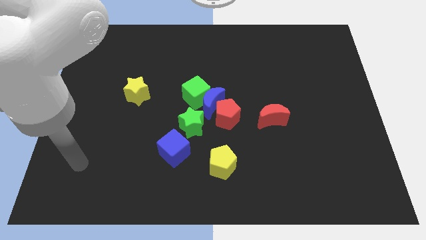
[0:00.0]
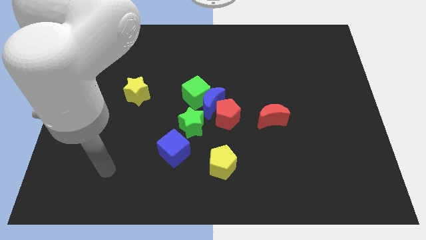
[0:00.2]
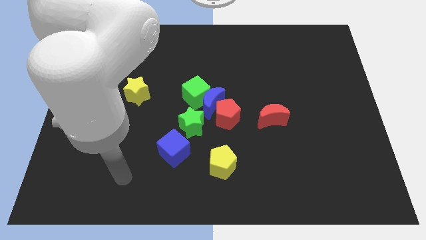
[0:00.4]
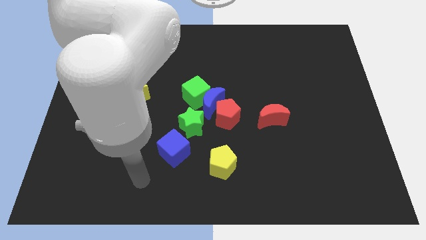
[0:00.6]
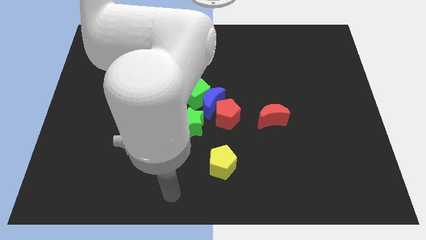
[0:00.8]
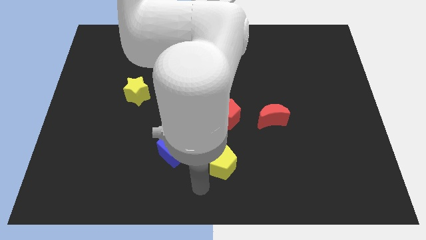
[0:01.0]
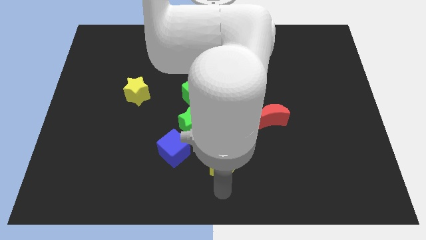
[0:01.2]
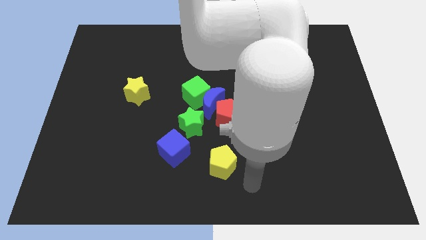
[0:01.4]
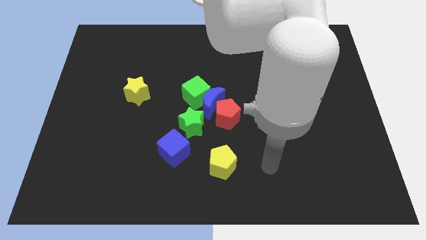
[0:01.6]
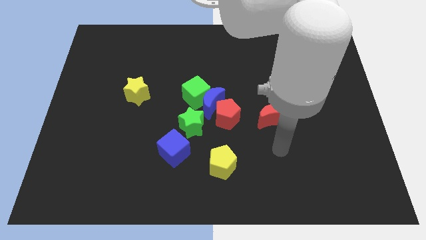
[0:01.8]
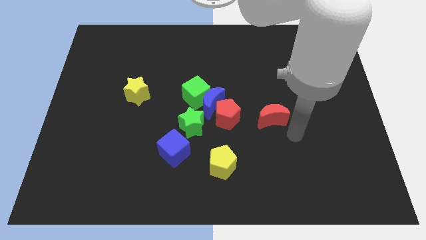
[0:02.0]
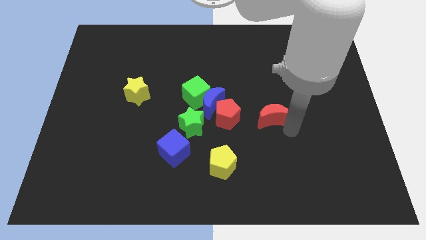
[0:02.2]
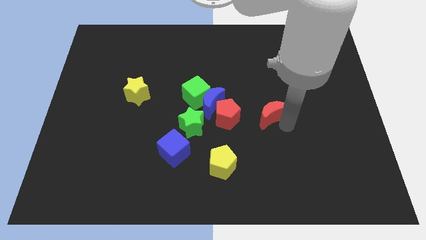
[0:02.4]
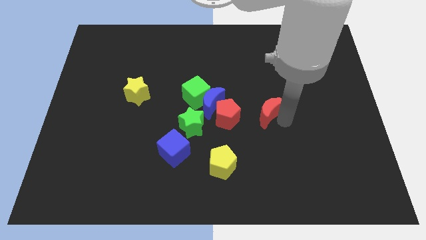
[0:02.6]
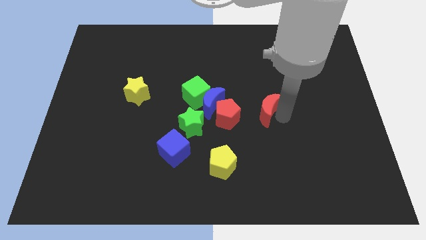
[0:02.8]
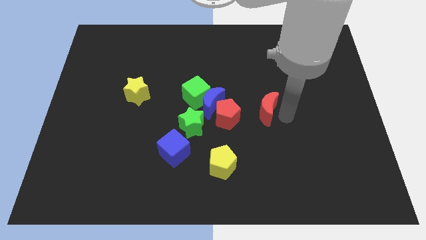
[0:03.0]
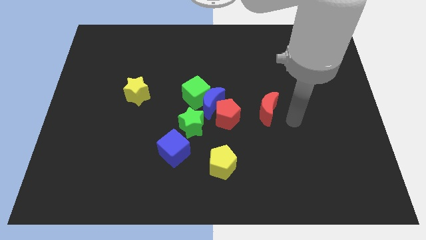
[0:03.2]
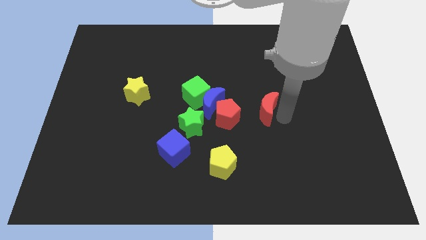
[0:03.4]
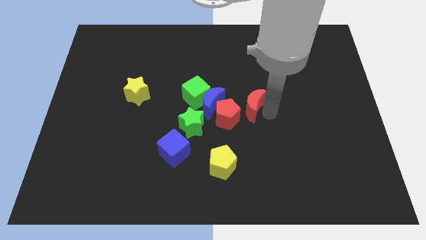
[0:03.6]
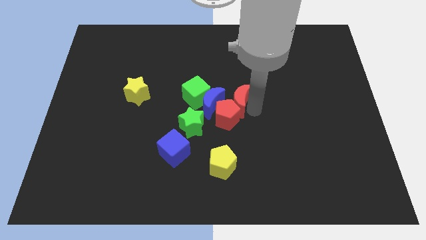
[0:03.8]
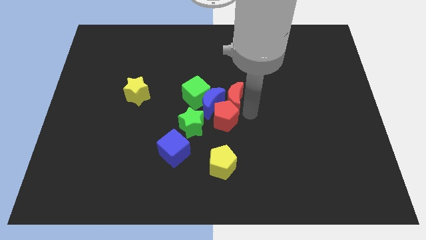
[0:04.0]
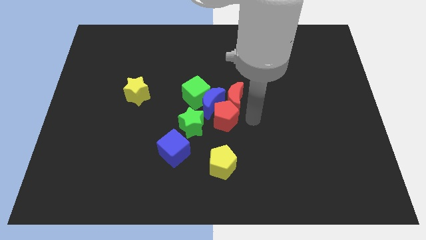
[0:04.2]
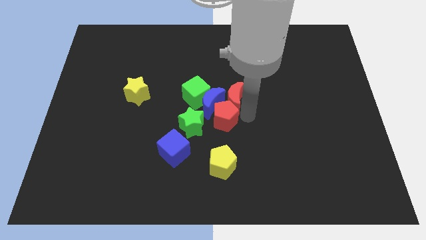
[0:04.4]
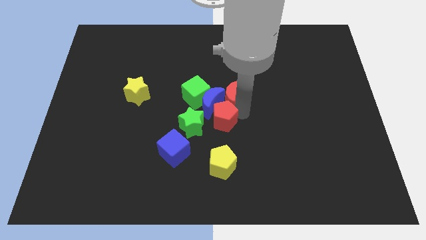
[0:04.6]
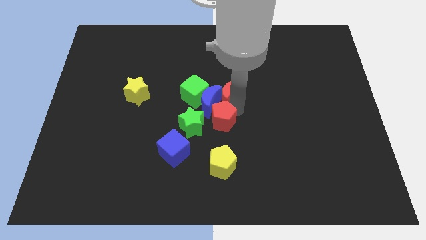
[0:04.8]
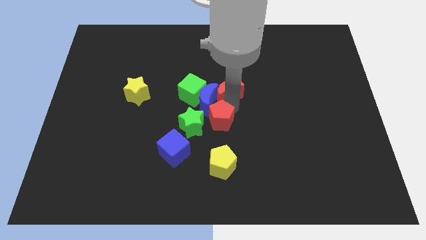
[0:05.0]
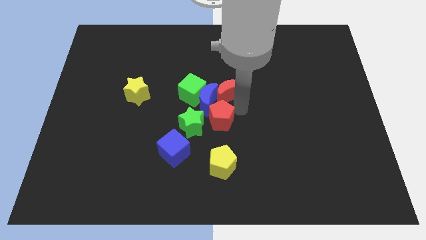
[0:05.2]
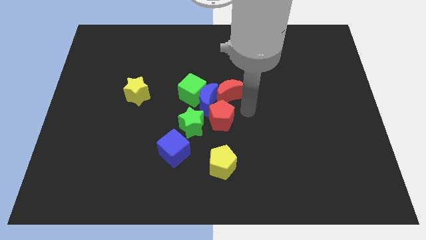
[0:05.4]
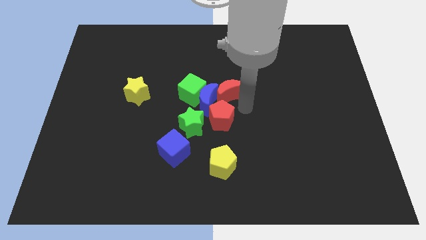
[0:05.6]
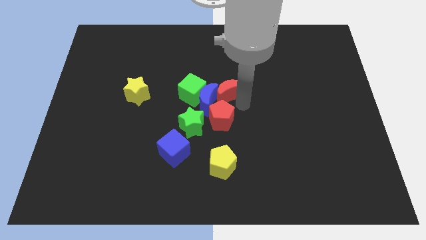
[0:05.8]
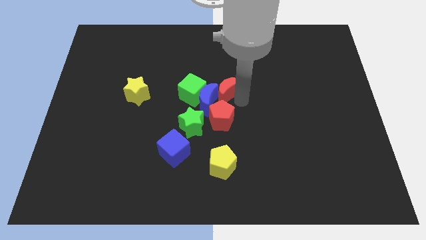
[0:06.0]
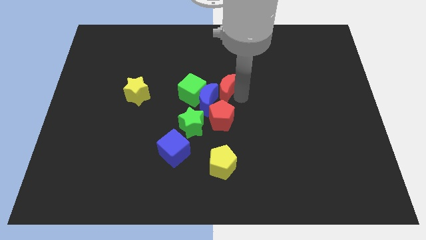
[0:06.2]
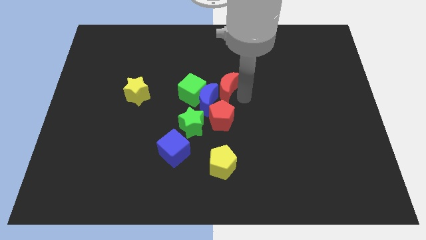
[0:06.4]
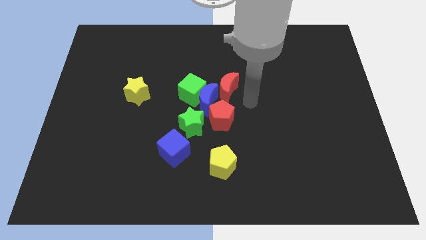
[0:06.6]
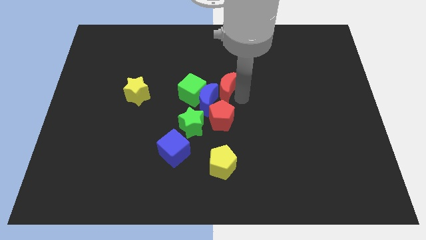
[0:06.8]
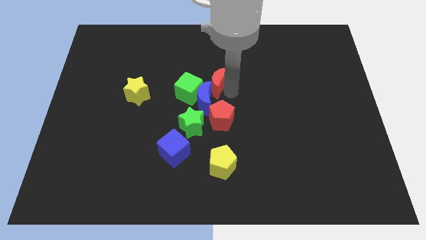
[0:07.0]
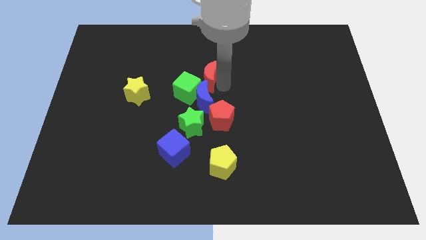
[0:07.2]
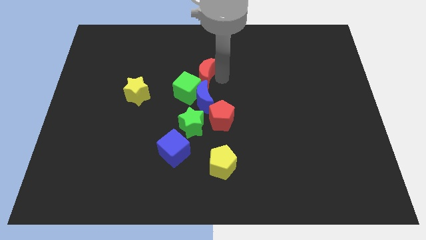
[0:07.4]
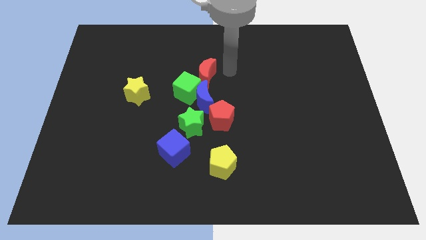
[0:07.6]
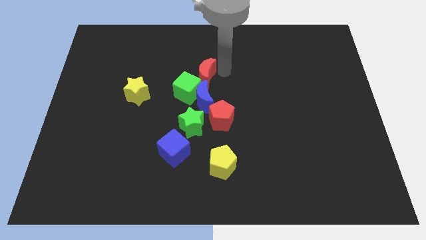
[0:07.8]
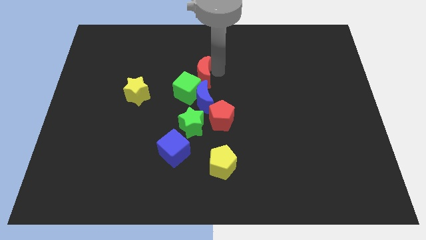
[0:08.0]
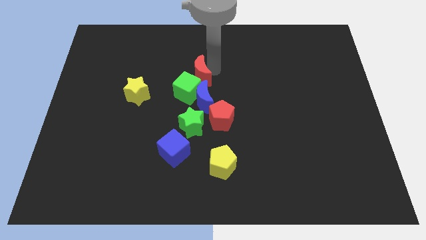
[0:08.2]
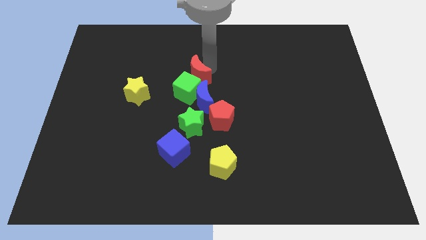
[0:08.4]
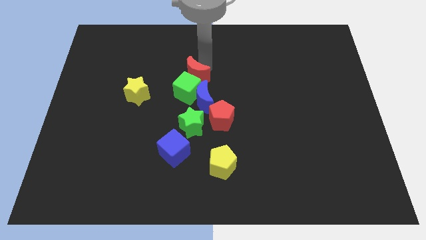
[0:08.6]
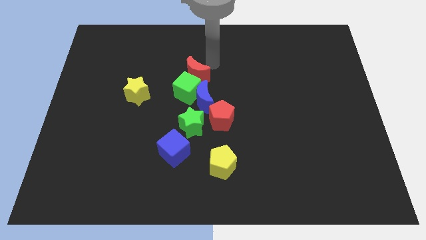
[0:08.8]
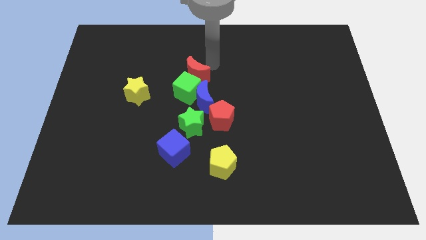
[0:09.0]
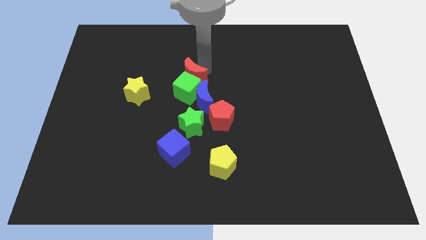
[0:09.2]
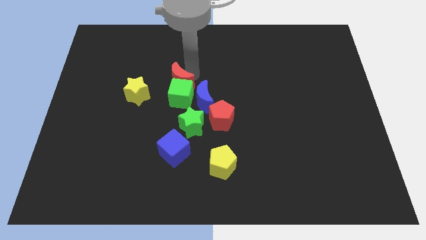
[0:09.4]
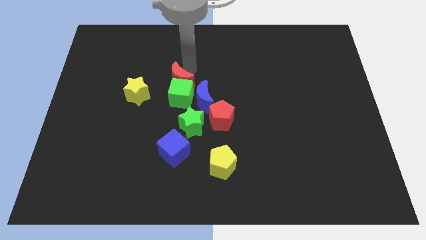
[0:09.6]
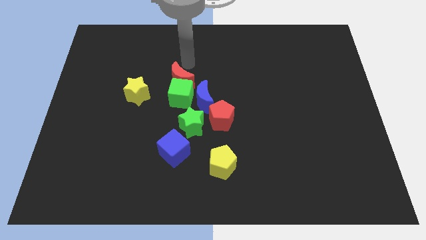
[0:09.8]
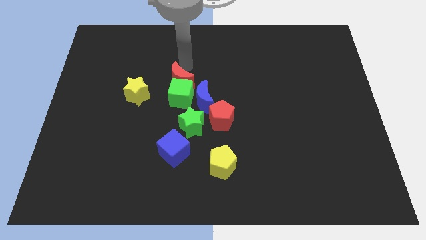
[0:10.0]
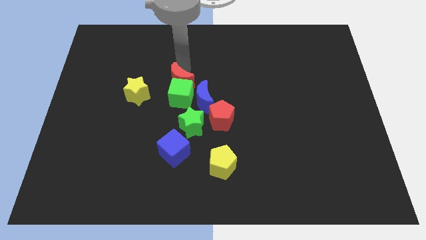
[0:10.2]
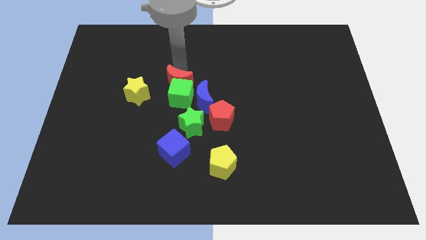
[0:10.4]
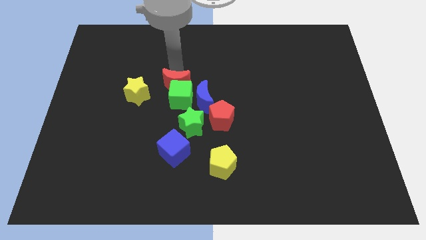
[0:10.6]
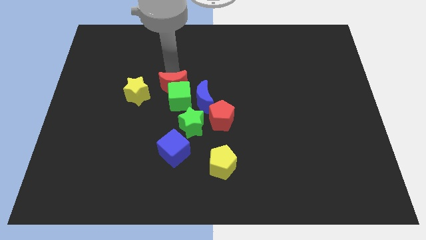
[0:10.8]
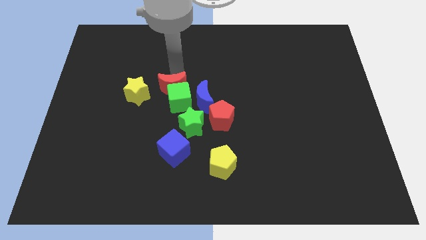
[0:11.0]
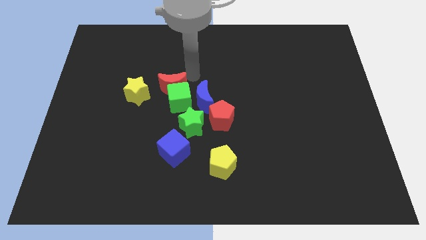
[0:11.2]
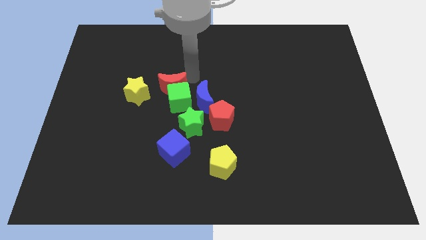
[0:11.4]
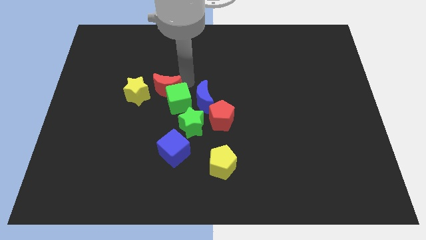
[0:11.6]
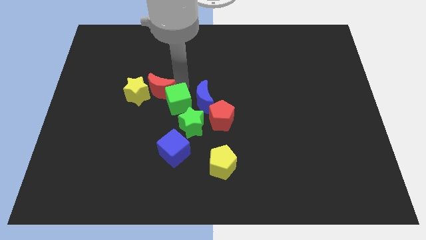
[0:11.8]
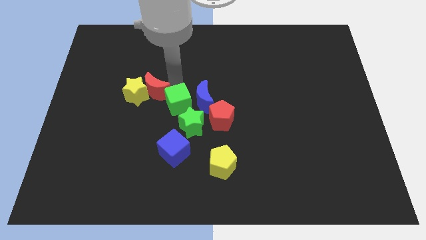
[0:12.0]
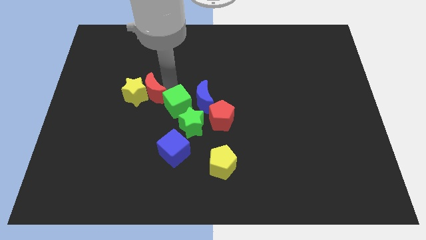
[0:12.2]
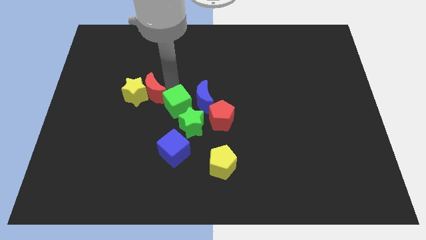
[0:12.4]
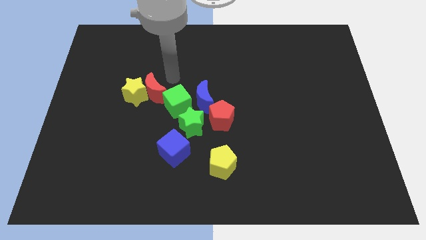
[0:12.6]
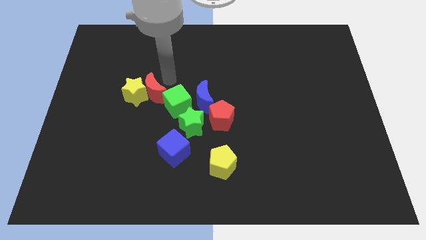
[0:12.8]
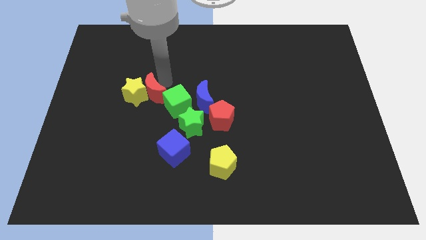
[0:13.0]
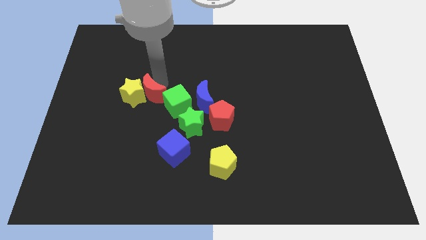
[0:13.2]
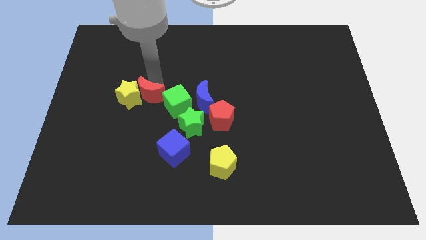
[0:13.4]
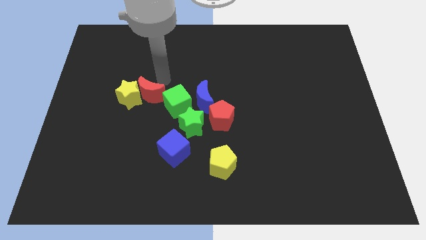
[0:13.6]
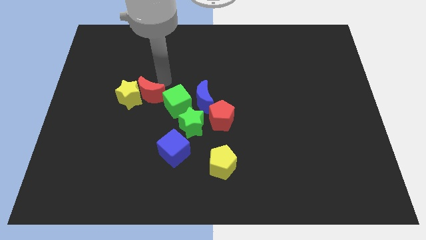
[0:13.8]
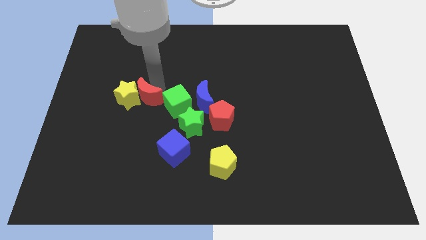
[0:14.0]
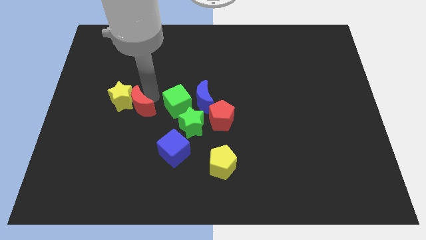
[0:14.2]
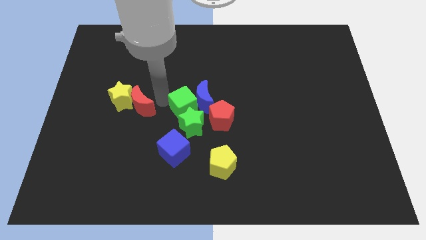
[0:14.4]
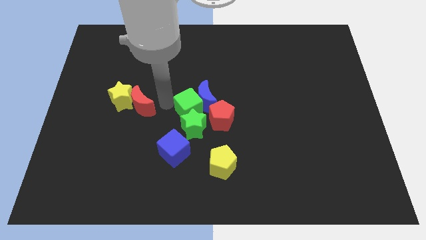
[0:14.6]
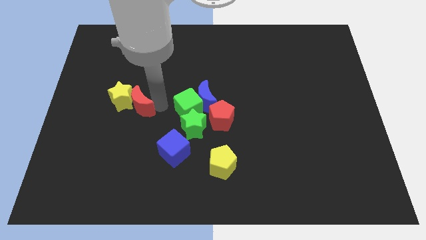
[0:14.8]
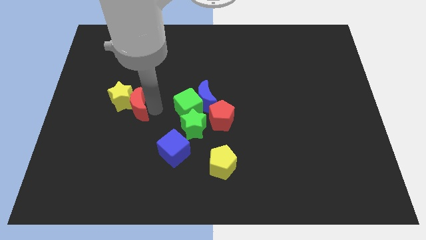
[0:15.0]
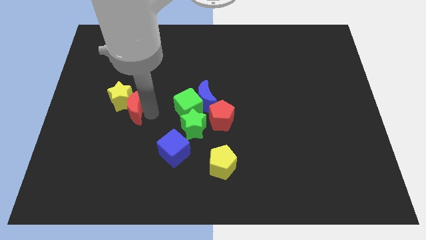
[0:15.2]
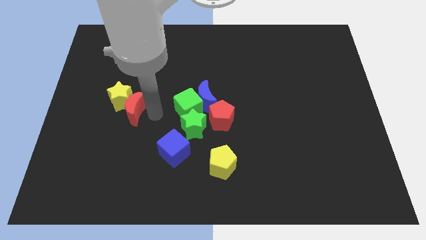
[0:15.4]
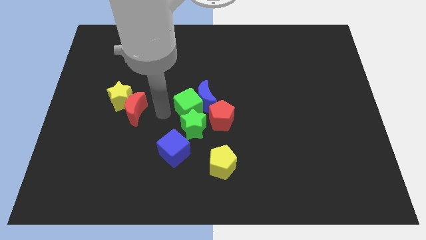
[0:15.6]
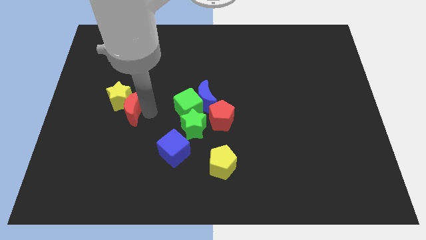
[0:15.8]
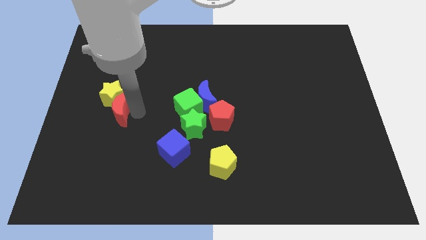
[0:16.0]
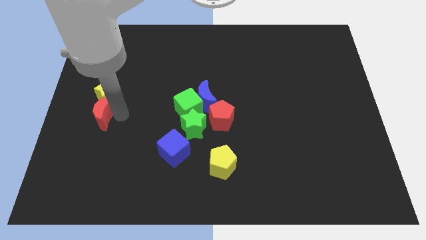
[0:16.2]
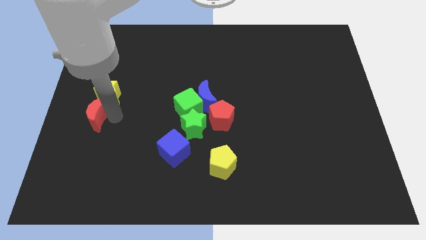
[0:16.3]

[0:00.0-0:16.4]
put the red moon to the left side of the board
